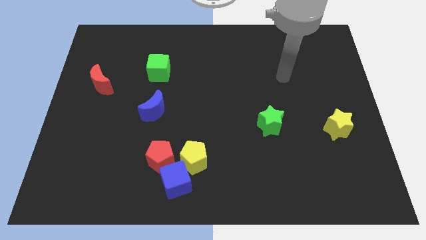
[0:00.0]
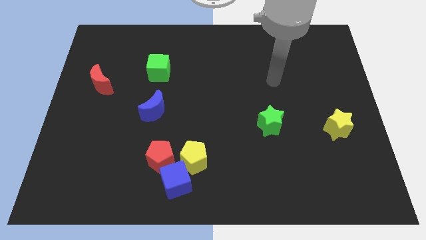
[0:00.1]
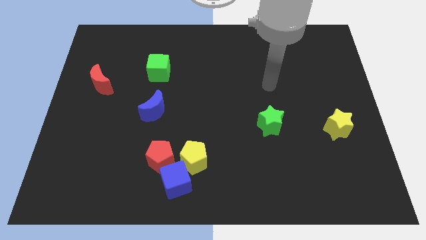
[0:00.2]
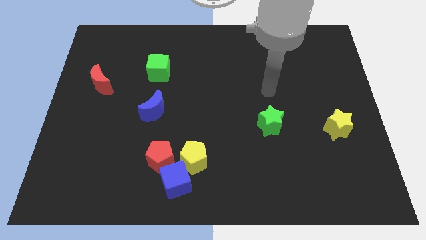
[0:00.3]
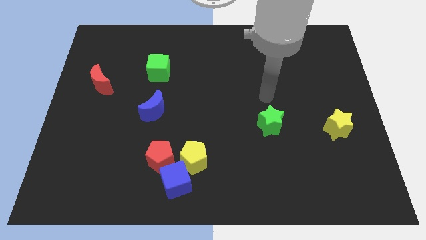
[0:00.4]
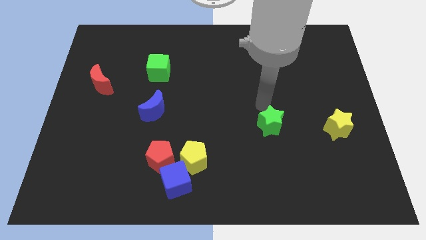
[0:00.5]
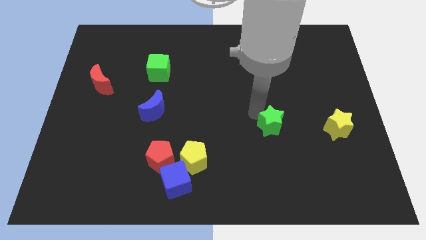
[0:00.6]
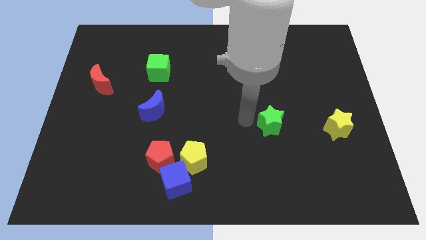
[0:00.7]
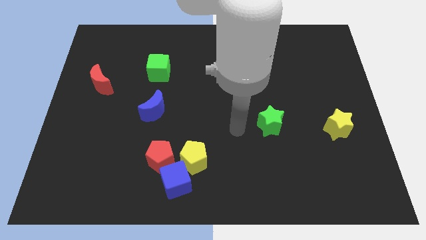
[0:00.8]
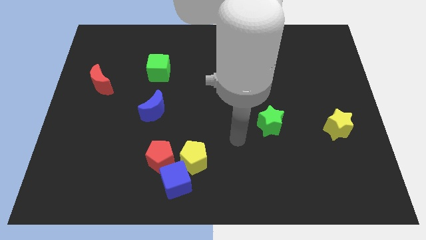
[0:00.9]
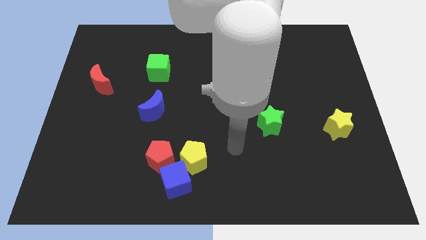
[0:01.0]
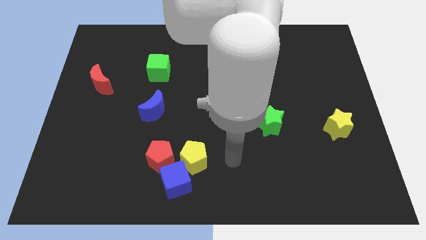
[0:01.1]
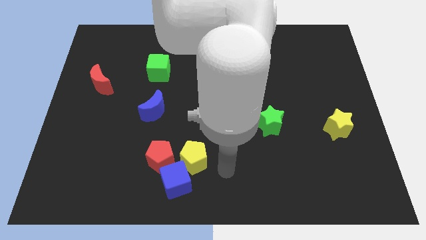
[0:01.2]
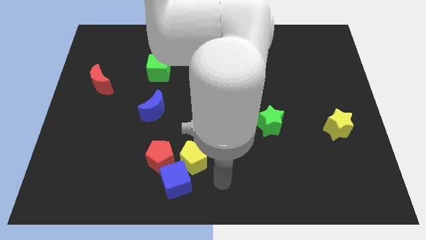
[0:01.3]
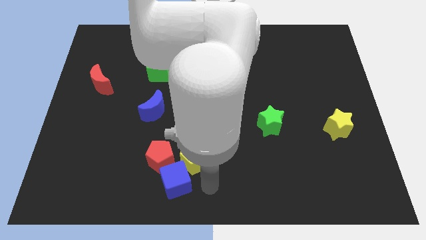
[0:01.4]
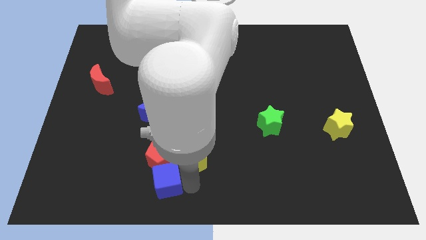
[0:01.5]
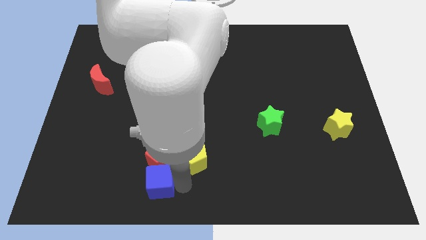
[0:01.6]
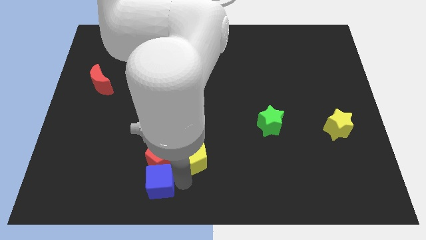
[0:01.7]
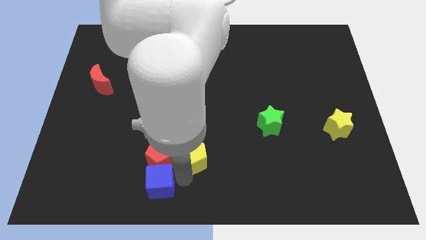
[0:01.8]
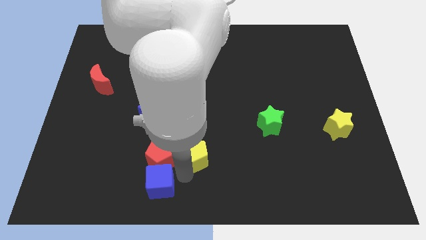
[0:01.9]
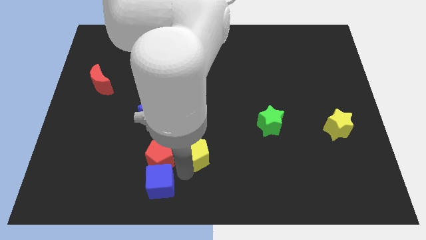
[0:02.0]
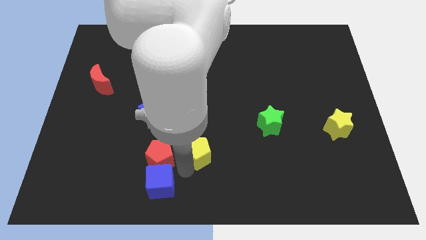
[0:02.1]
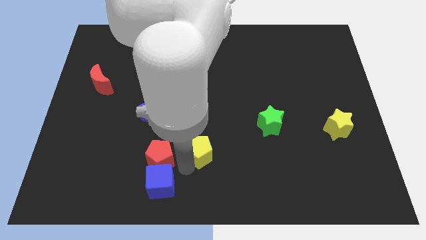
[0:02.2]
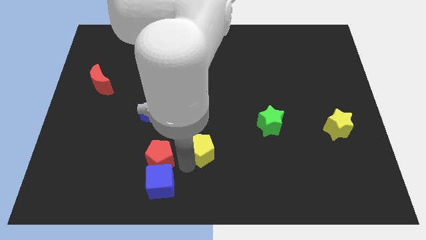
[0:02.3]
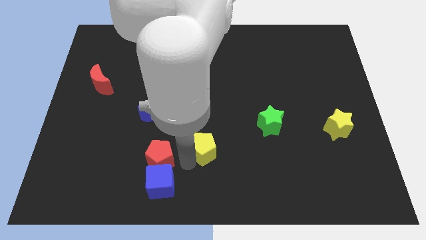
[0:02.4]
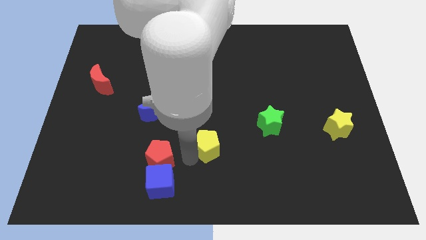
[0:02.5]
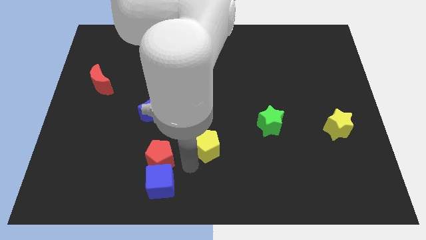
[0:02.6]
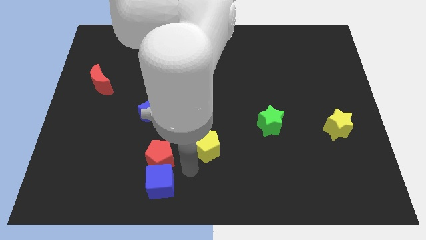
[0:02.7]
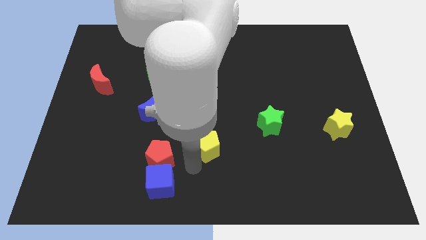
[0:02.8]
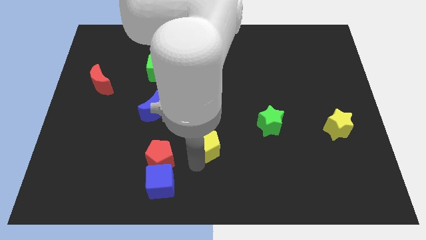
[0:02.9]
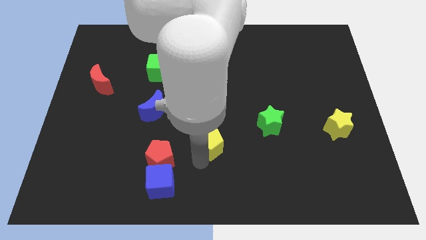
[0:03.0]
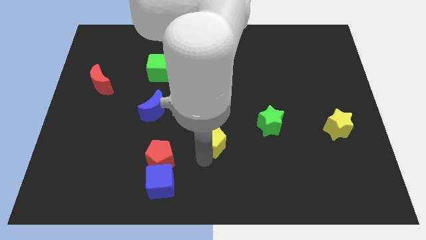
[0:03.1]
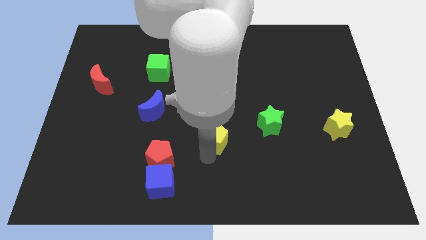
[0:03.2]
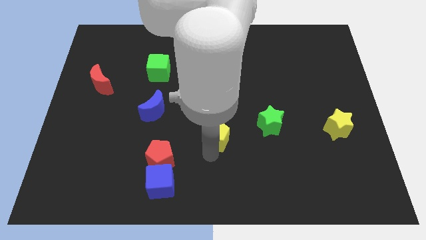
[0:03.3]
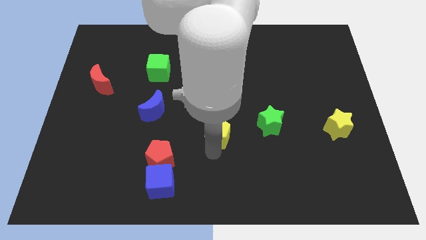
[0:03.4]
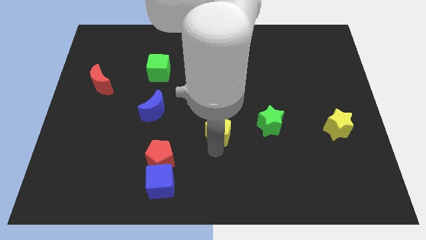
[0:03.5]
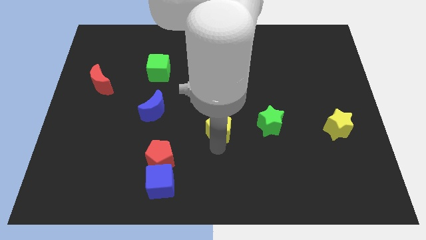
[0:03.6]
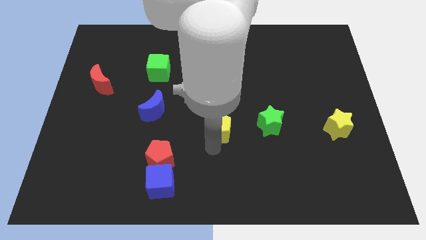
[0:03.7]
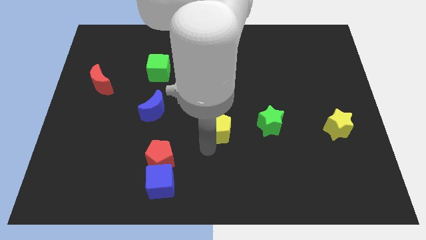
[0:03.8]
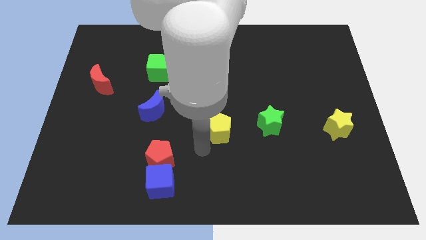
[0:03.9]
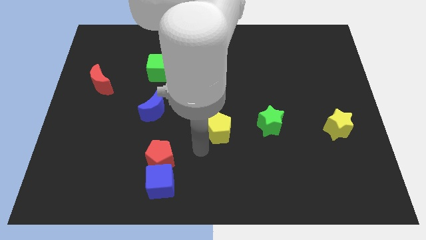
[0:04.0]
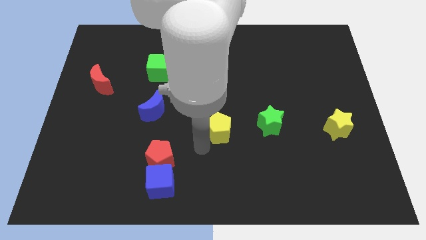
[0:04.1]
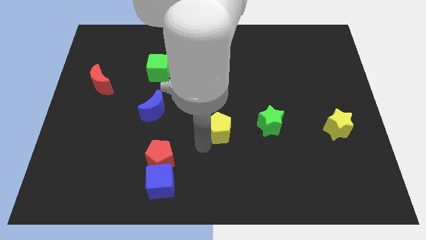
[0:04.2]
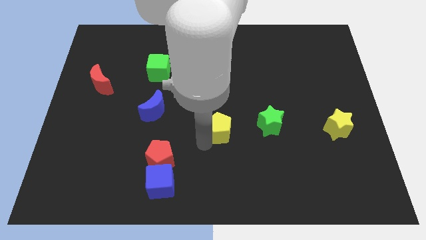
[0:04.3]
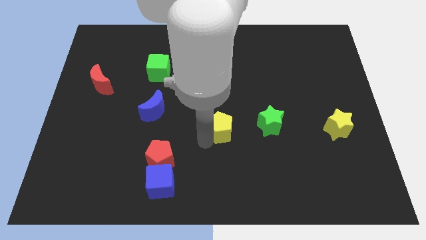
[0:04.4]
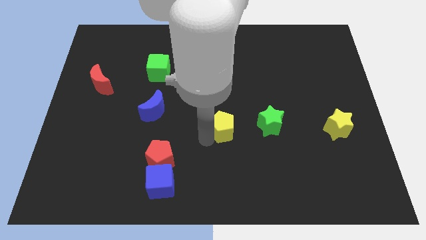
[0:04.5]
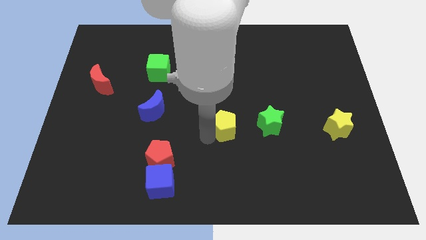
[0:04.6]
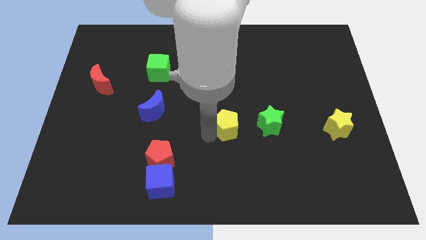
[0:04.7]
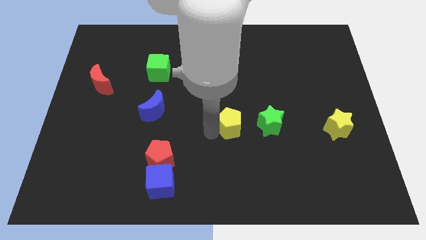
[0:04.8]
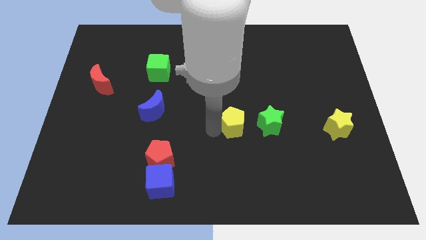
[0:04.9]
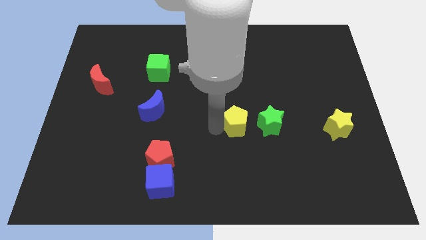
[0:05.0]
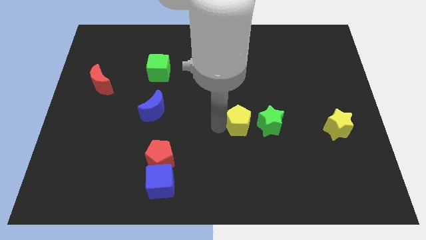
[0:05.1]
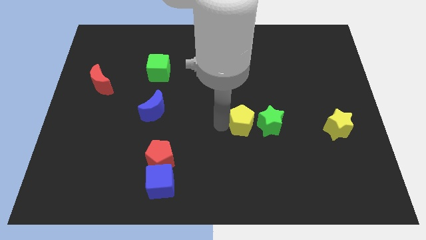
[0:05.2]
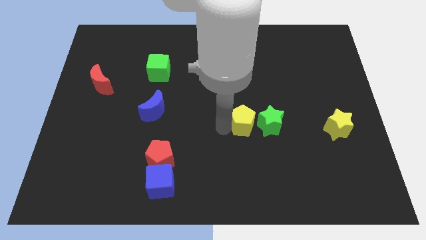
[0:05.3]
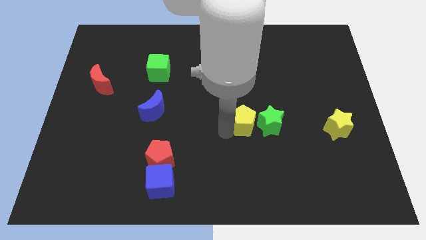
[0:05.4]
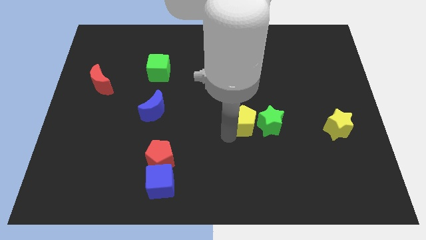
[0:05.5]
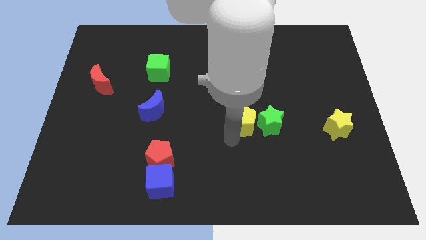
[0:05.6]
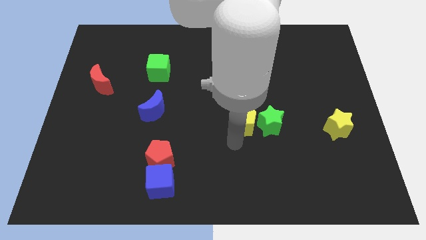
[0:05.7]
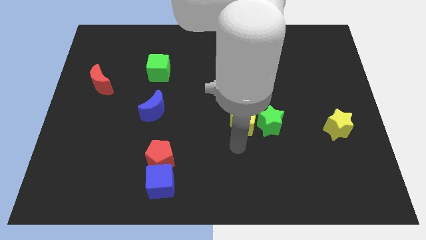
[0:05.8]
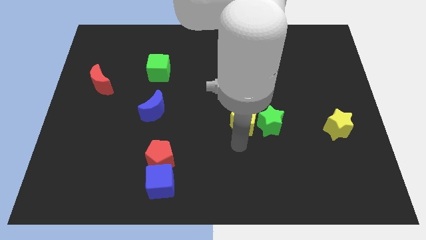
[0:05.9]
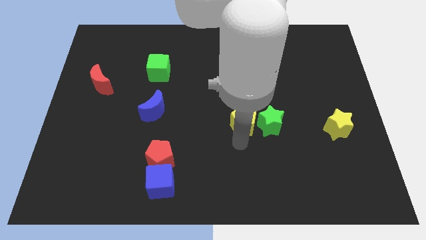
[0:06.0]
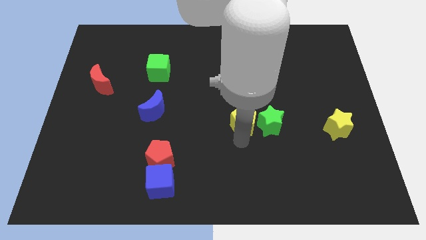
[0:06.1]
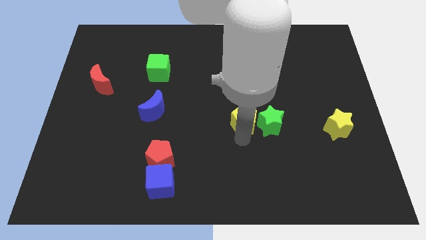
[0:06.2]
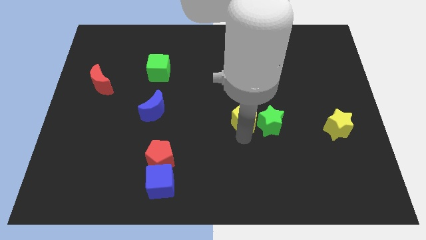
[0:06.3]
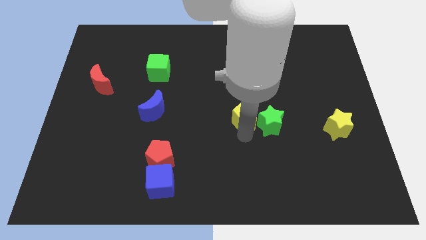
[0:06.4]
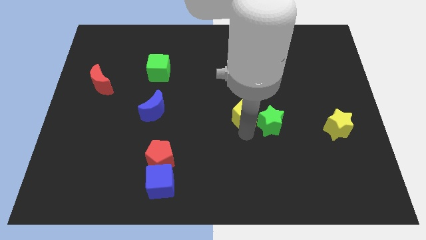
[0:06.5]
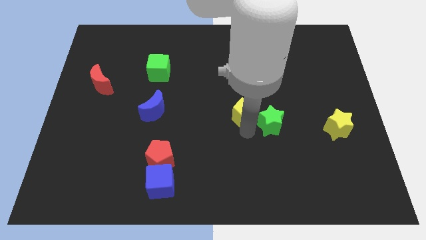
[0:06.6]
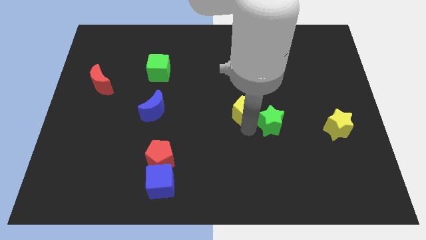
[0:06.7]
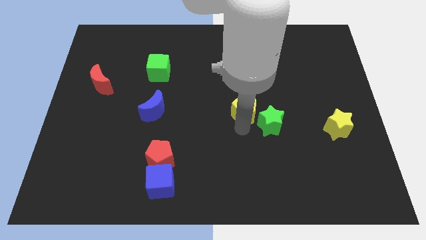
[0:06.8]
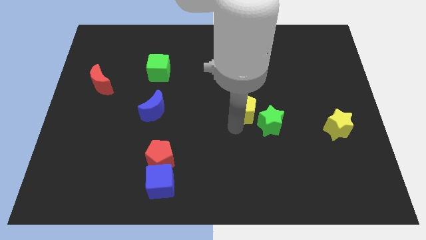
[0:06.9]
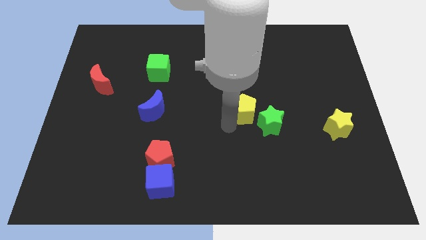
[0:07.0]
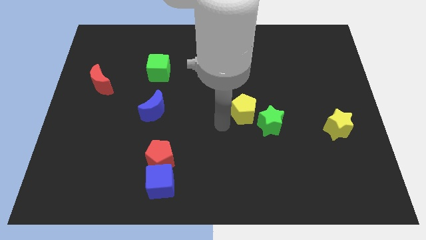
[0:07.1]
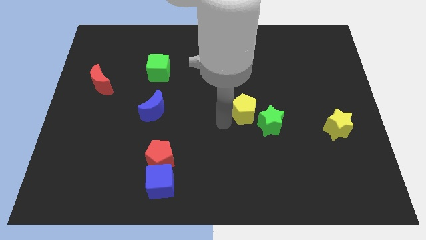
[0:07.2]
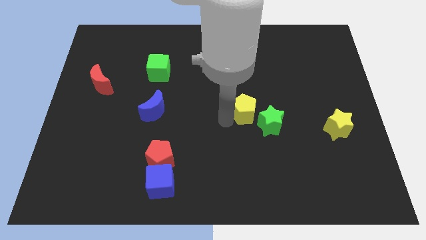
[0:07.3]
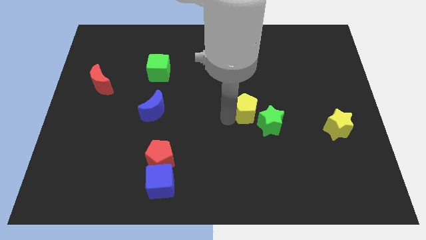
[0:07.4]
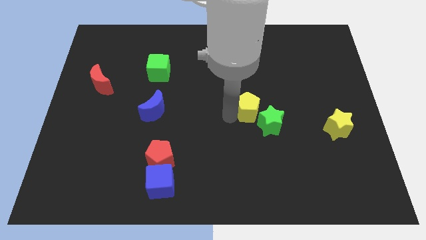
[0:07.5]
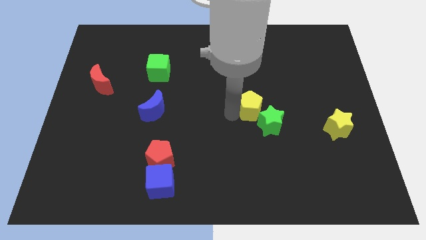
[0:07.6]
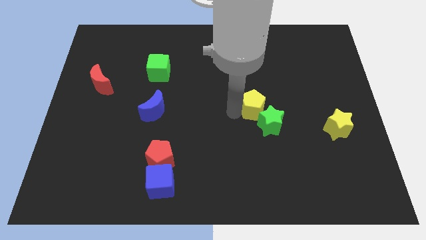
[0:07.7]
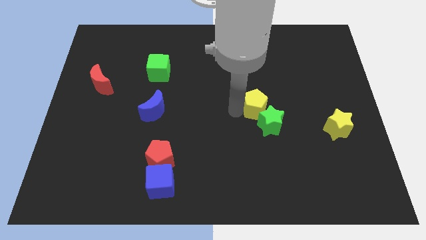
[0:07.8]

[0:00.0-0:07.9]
push the yellow pentagon up and right

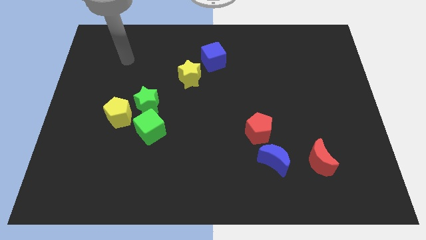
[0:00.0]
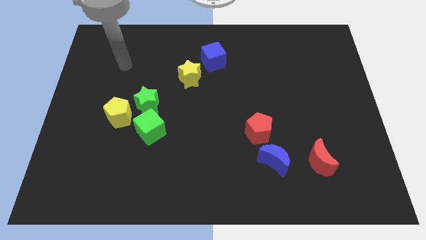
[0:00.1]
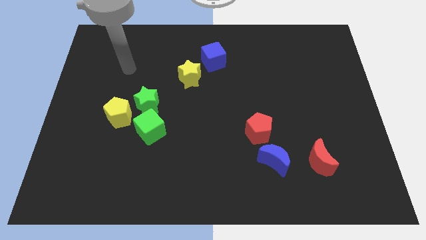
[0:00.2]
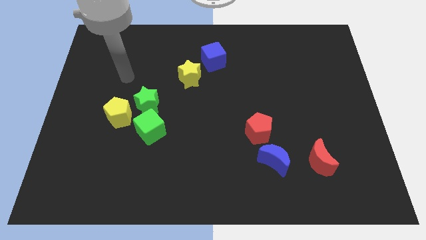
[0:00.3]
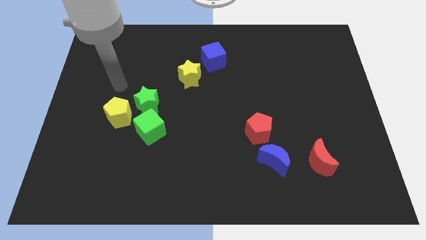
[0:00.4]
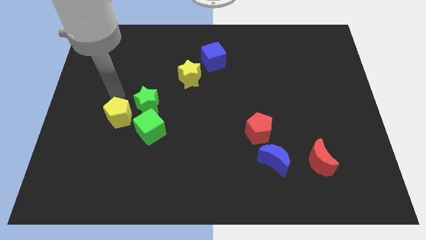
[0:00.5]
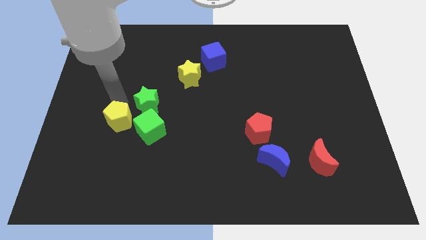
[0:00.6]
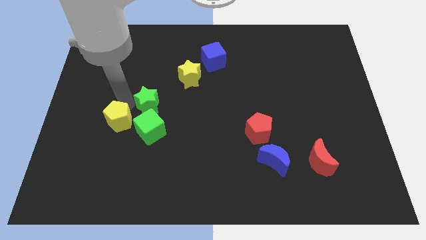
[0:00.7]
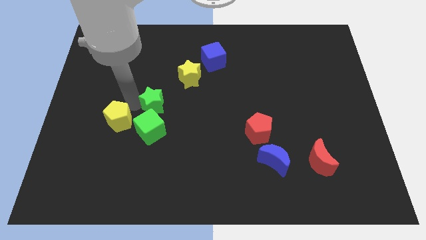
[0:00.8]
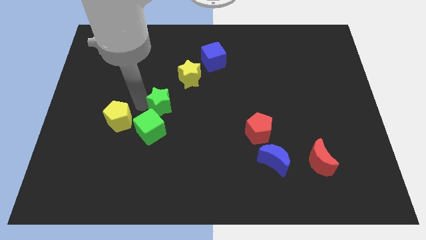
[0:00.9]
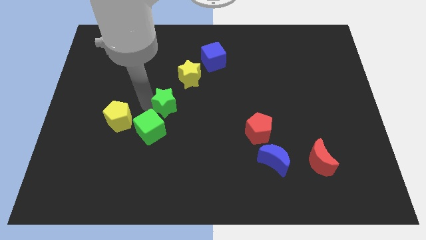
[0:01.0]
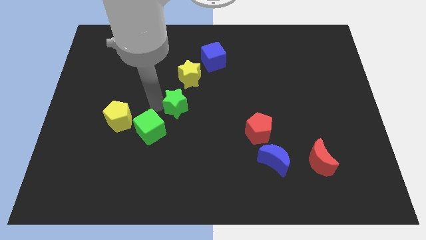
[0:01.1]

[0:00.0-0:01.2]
slightly move the green star to the right
